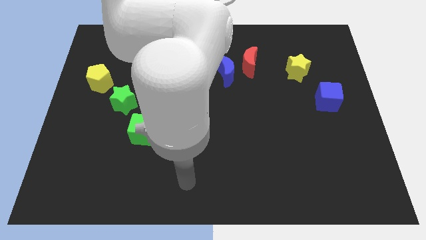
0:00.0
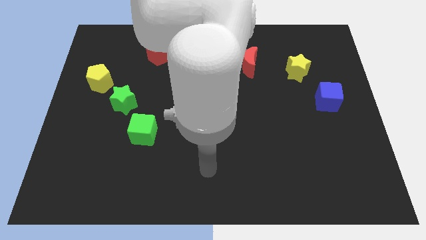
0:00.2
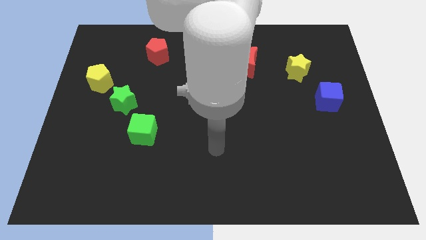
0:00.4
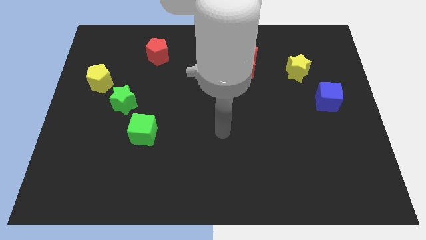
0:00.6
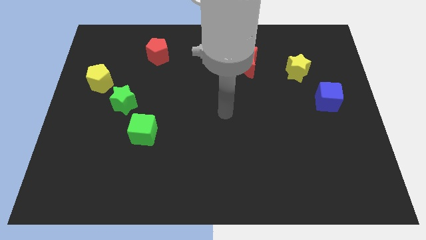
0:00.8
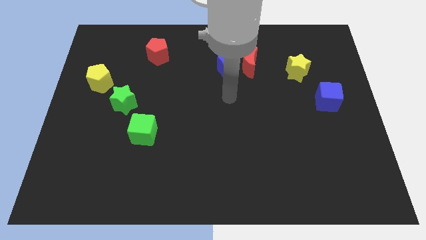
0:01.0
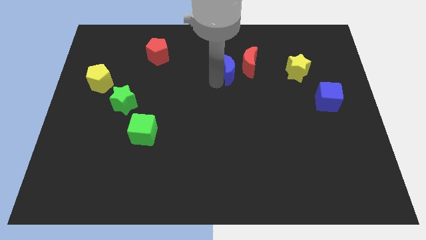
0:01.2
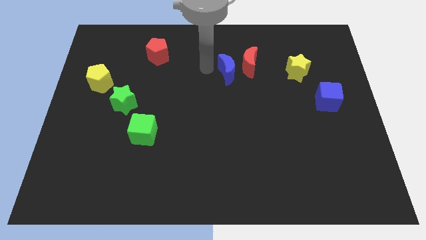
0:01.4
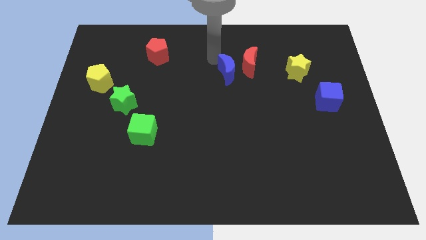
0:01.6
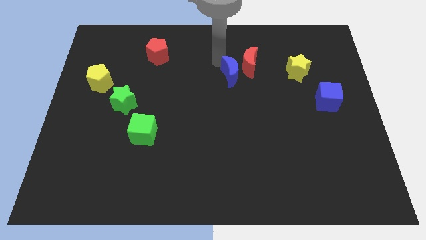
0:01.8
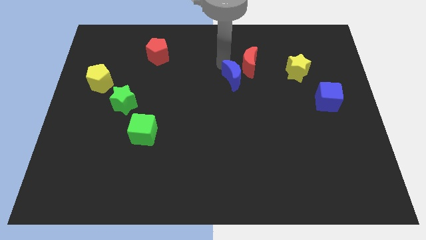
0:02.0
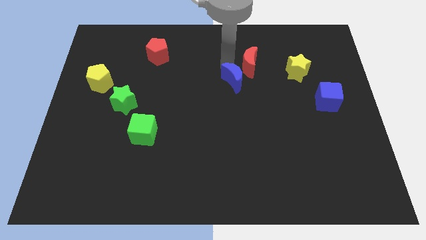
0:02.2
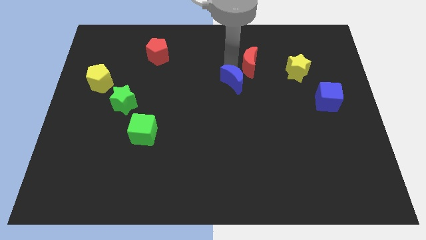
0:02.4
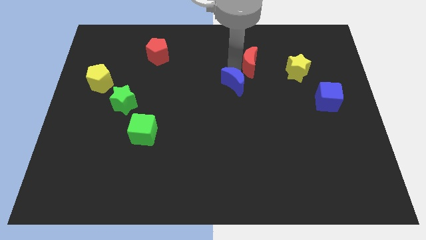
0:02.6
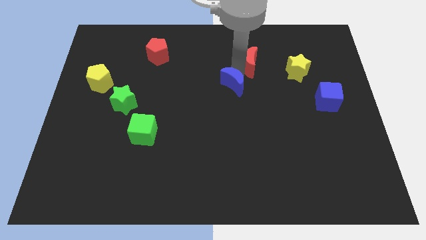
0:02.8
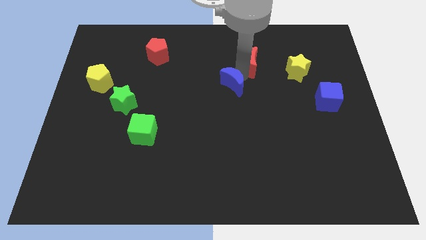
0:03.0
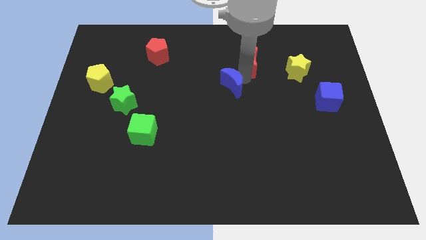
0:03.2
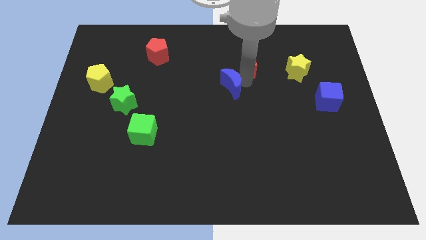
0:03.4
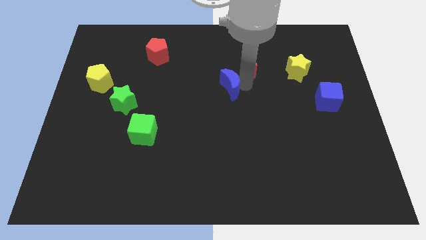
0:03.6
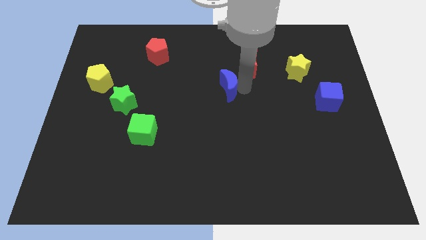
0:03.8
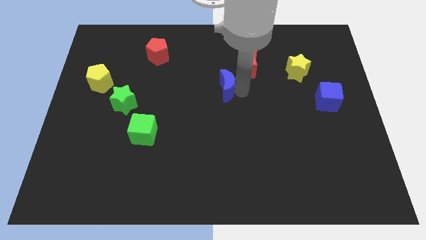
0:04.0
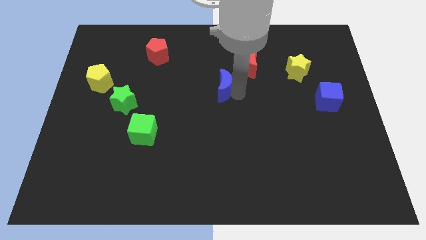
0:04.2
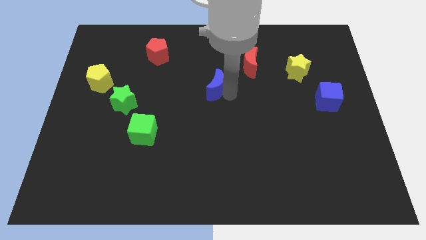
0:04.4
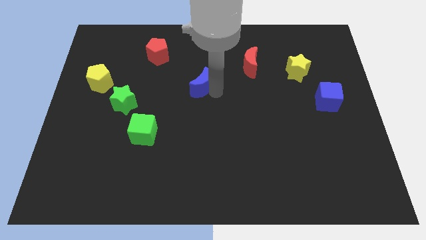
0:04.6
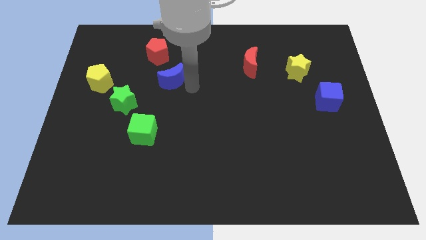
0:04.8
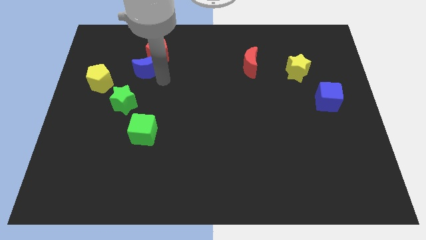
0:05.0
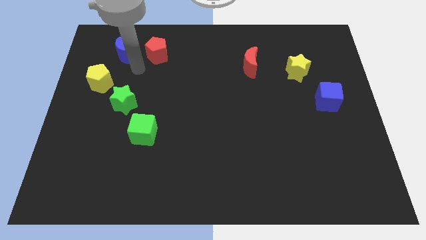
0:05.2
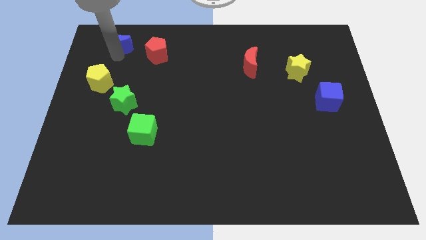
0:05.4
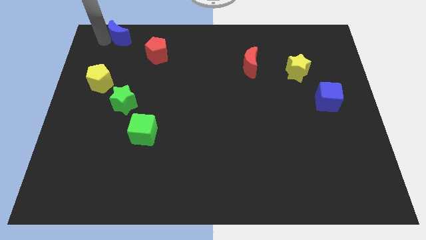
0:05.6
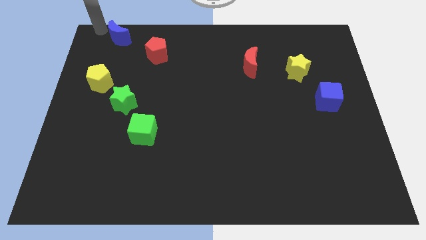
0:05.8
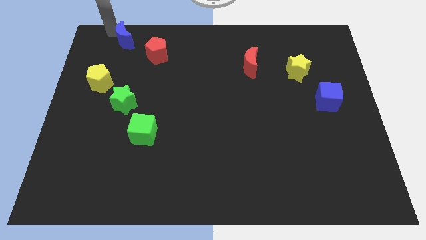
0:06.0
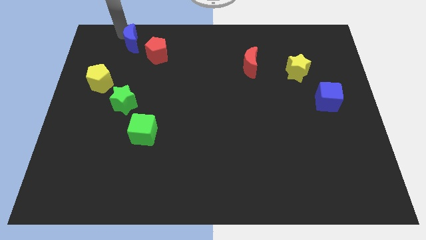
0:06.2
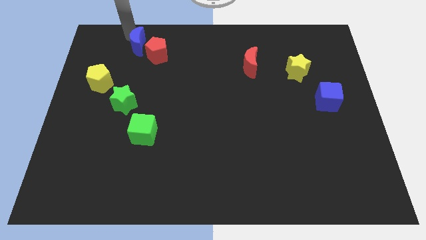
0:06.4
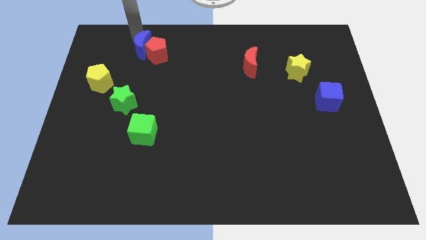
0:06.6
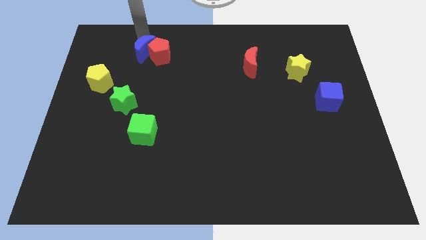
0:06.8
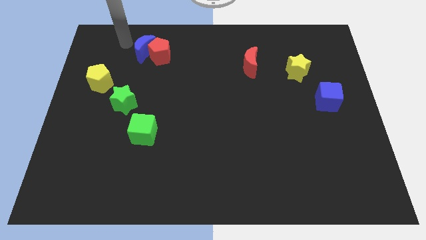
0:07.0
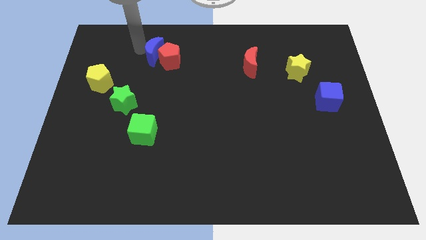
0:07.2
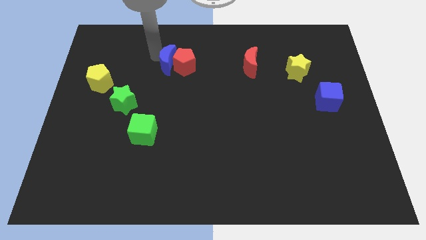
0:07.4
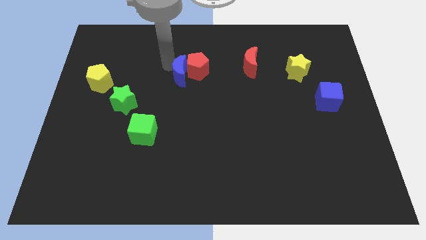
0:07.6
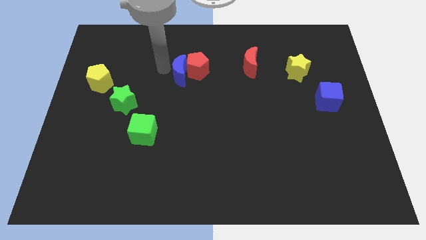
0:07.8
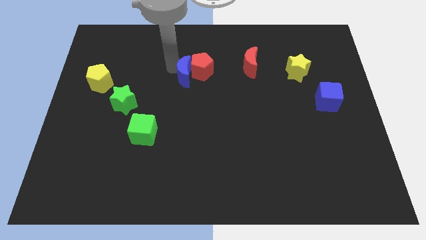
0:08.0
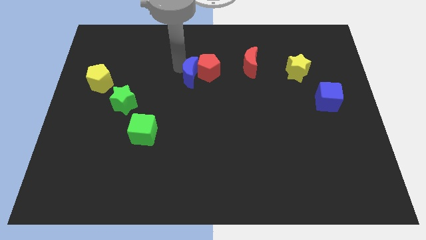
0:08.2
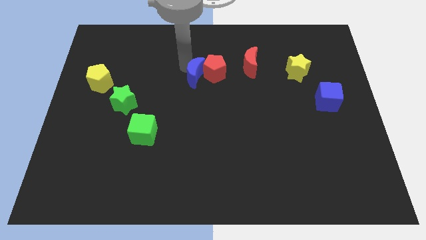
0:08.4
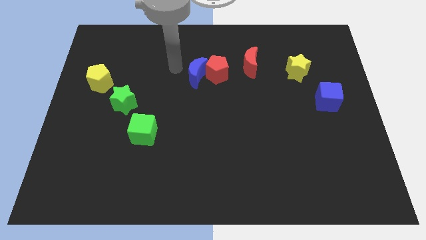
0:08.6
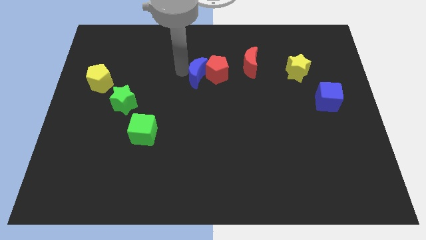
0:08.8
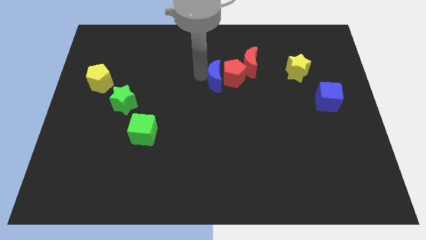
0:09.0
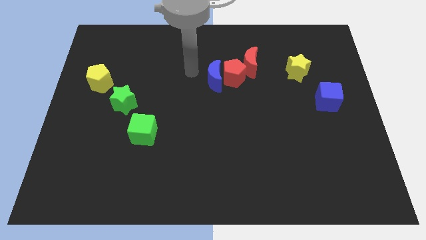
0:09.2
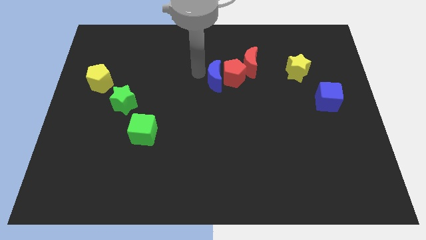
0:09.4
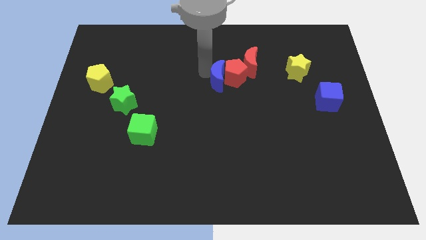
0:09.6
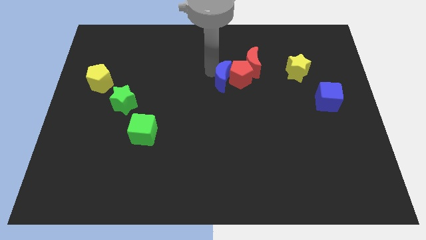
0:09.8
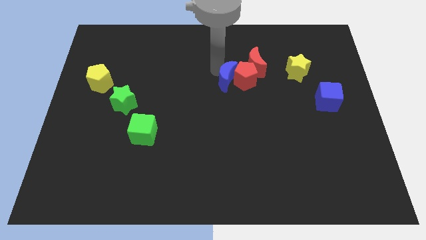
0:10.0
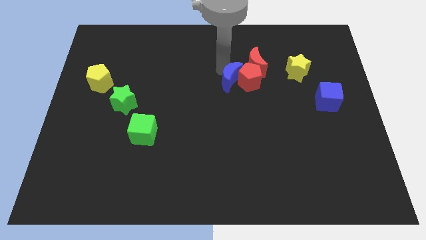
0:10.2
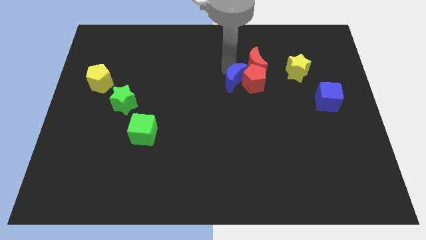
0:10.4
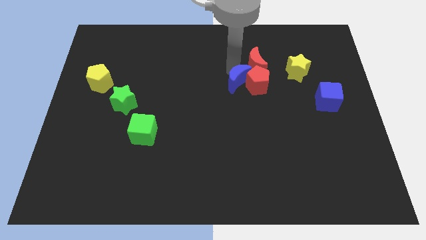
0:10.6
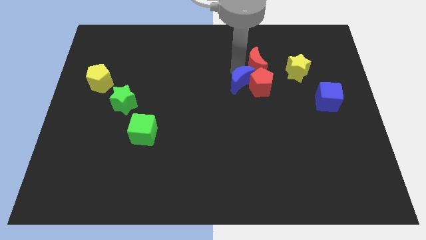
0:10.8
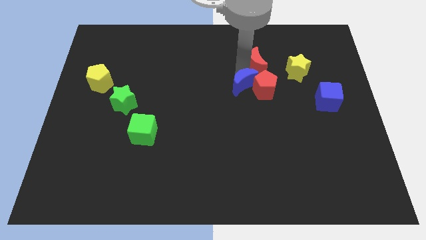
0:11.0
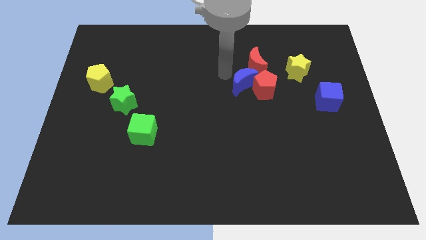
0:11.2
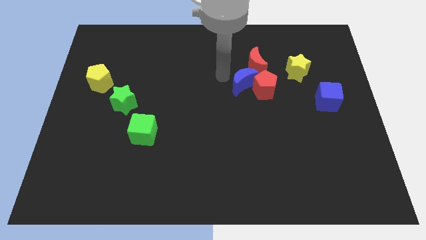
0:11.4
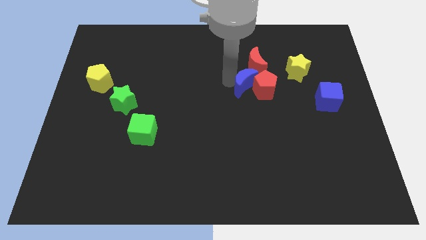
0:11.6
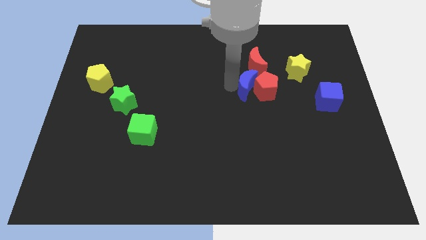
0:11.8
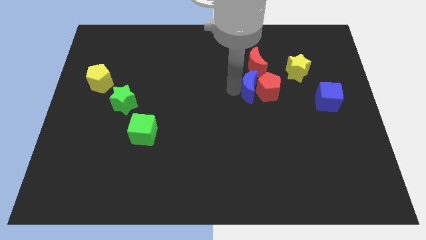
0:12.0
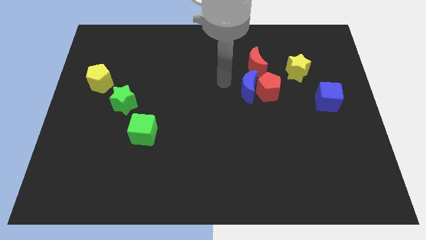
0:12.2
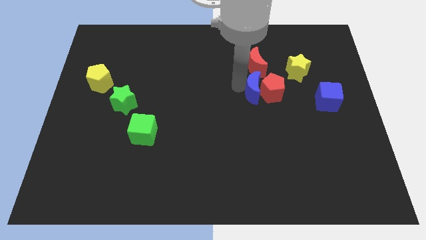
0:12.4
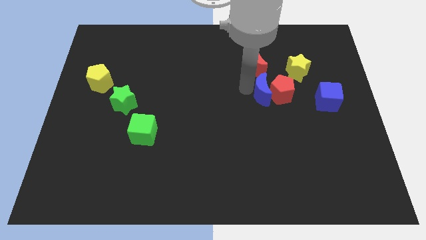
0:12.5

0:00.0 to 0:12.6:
push the blue moon to the left side of the blue cube

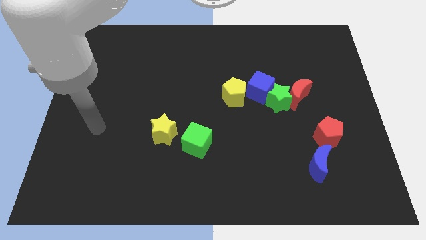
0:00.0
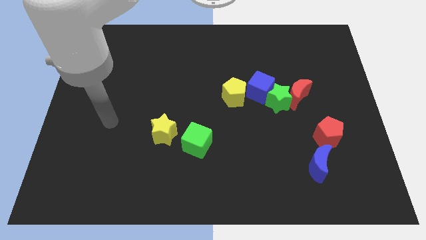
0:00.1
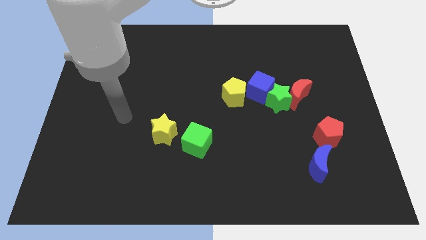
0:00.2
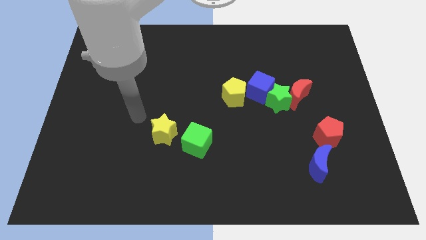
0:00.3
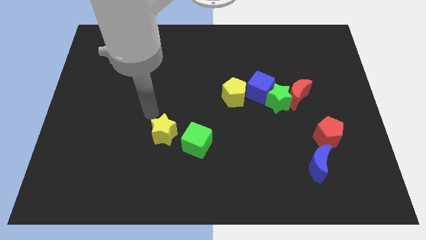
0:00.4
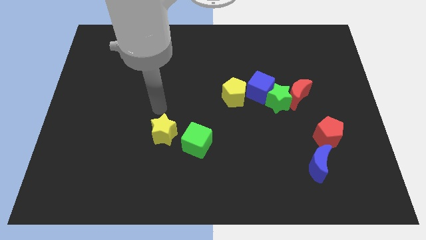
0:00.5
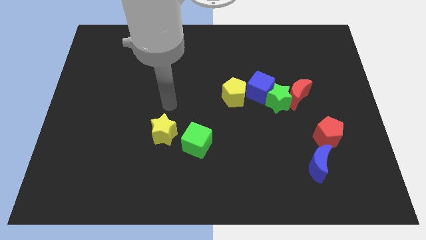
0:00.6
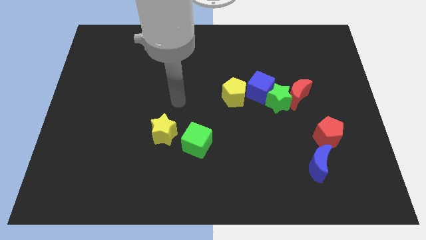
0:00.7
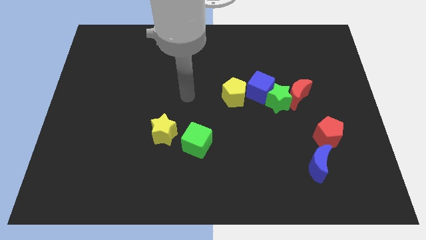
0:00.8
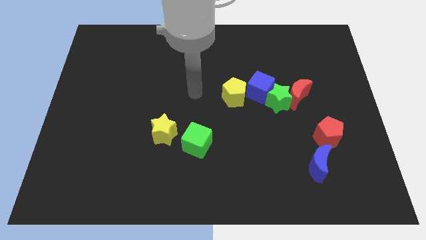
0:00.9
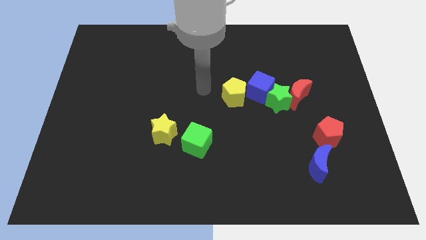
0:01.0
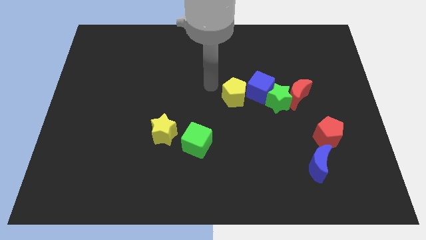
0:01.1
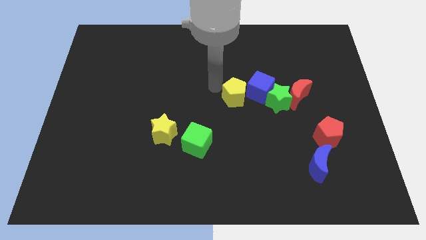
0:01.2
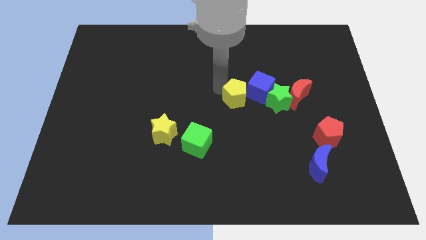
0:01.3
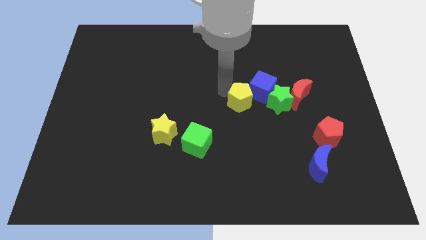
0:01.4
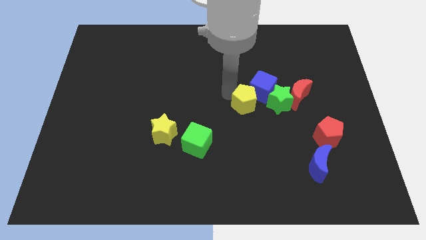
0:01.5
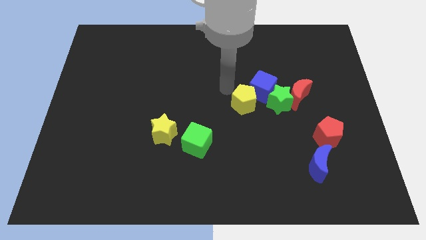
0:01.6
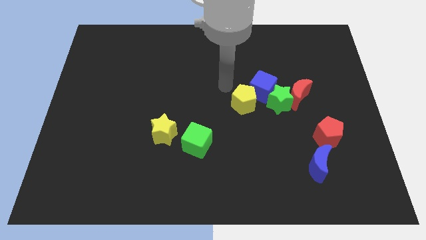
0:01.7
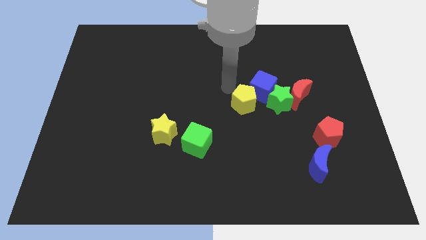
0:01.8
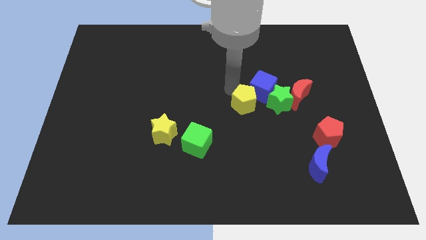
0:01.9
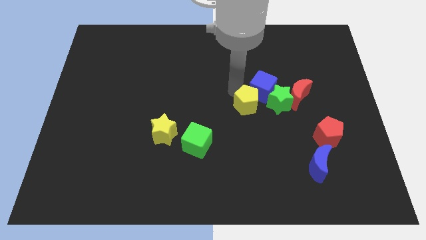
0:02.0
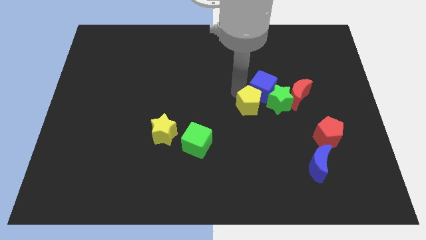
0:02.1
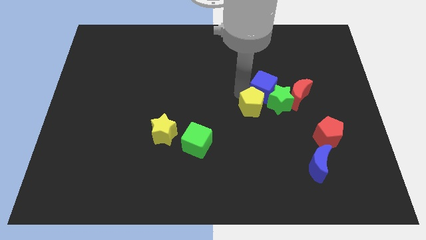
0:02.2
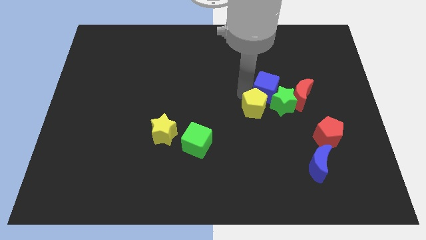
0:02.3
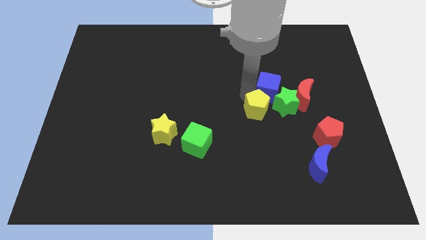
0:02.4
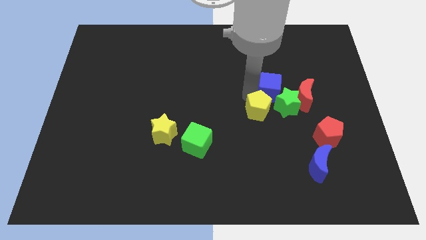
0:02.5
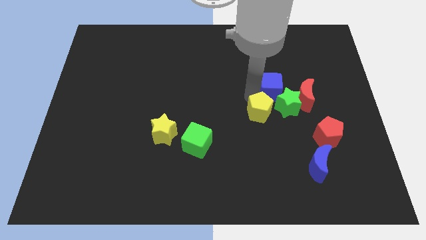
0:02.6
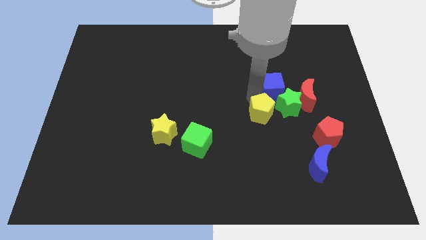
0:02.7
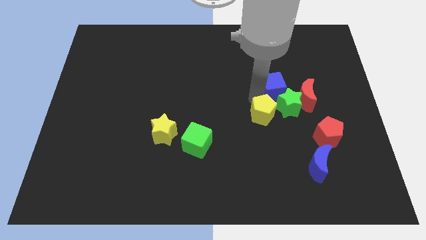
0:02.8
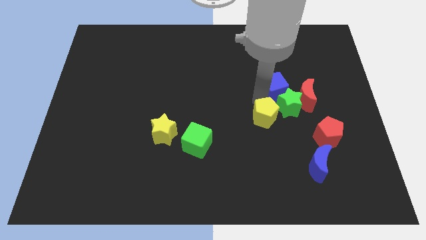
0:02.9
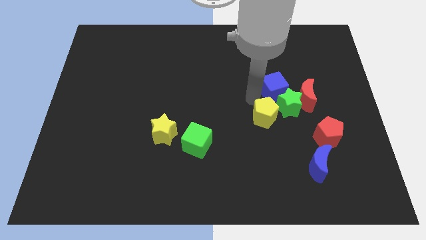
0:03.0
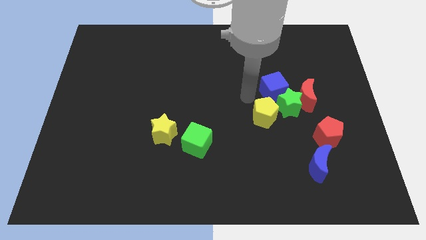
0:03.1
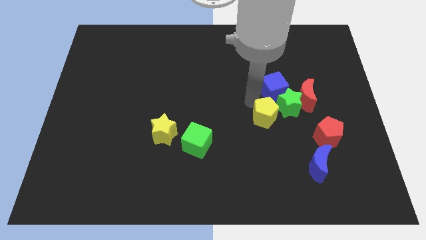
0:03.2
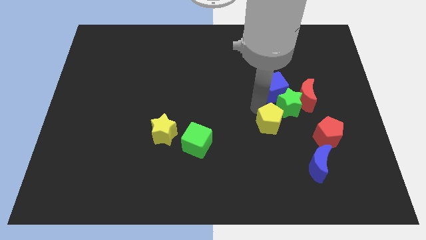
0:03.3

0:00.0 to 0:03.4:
push the yellow pentagon to the bottom of the green star
